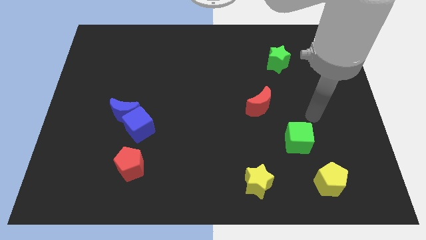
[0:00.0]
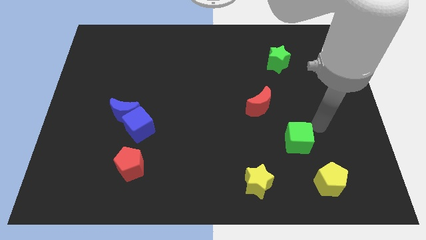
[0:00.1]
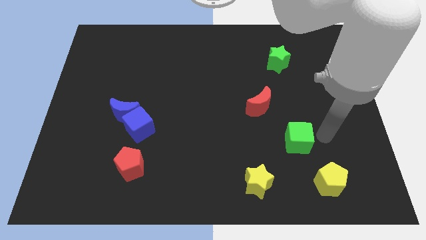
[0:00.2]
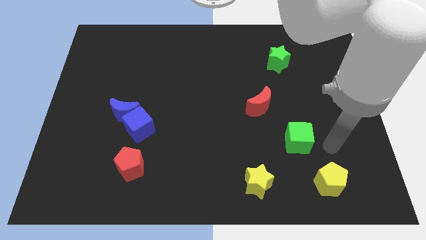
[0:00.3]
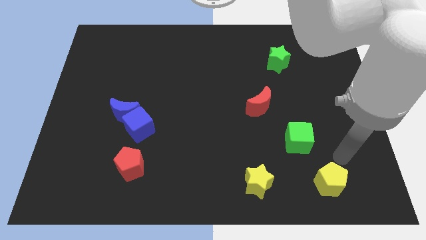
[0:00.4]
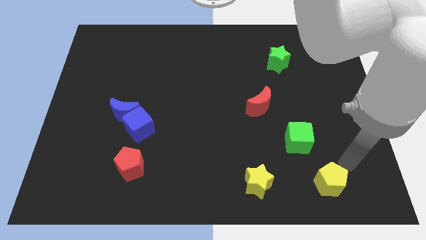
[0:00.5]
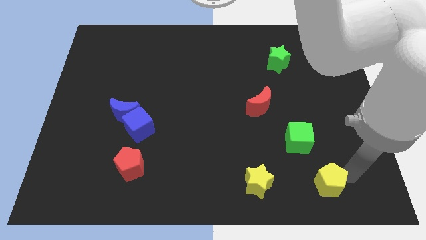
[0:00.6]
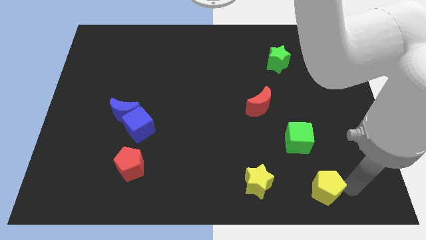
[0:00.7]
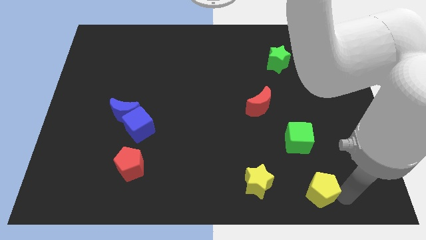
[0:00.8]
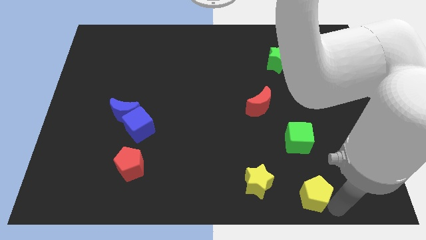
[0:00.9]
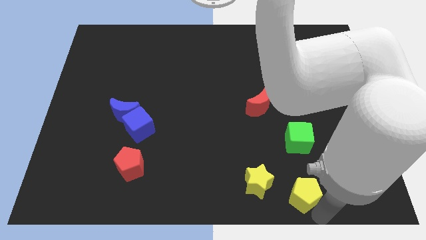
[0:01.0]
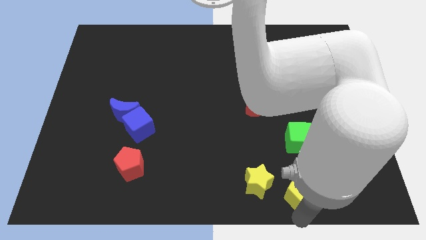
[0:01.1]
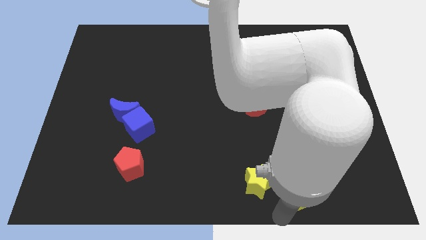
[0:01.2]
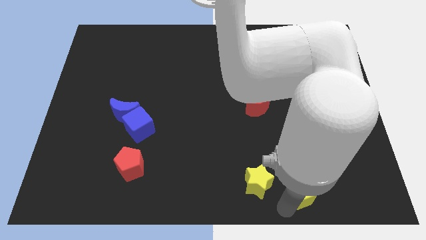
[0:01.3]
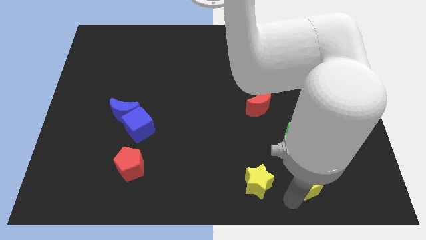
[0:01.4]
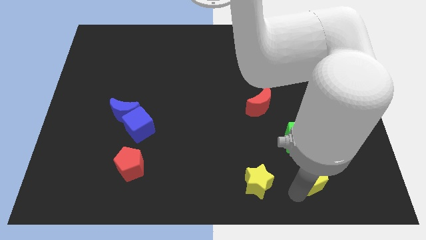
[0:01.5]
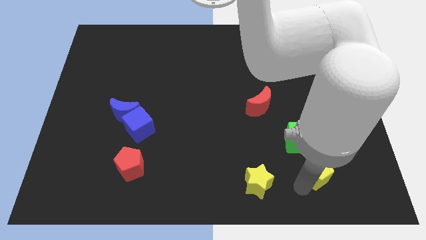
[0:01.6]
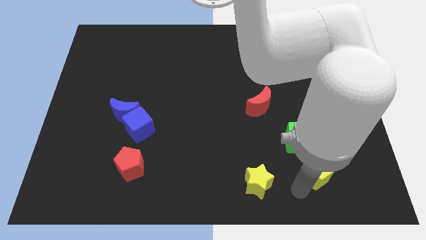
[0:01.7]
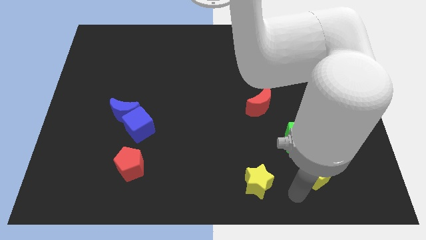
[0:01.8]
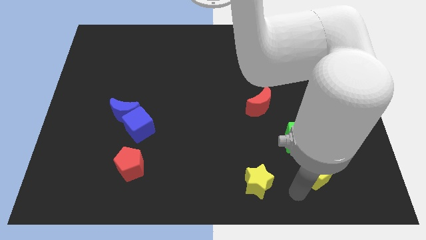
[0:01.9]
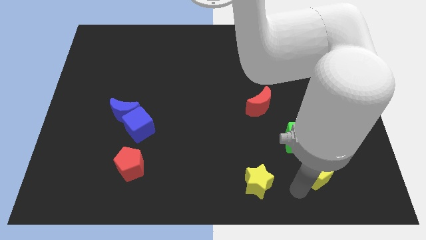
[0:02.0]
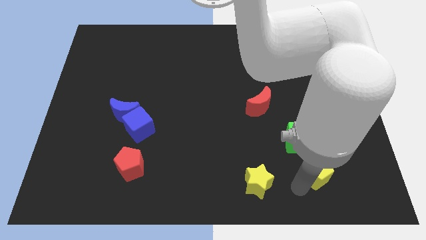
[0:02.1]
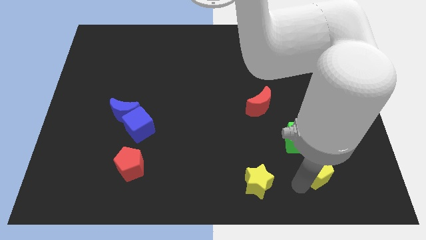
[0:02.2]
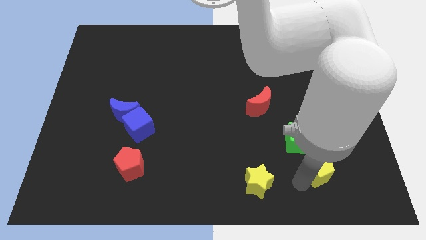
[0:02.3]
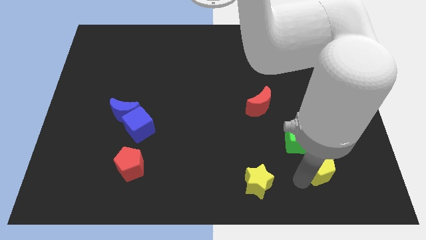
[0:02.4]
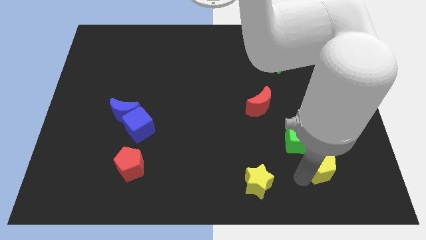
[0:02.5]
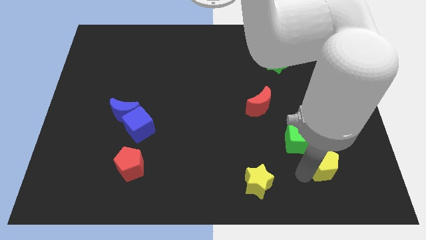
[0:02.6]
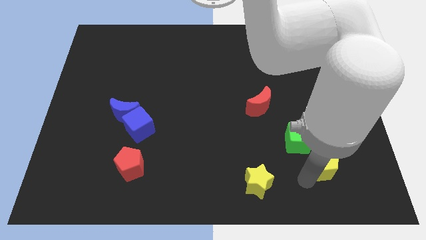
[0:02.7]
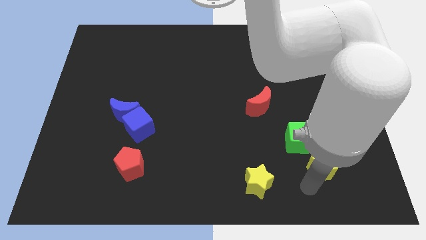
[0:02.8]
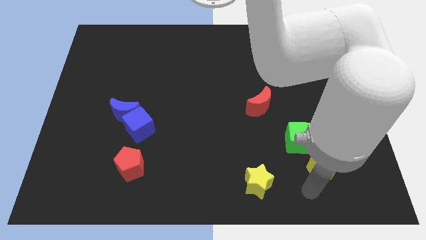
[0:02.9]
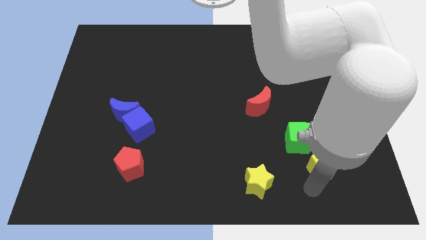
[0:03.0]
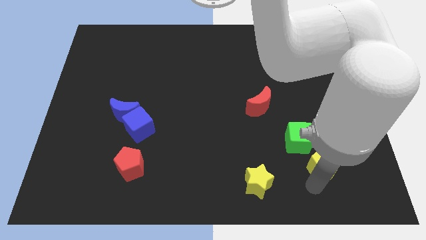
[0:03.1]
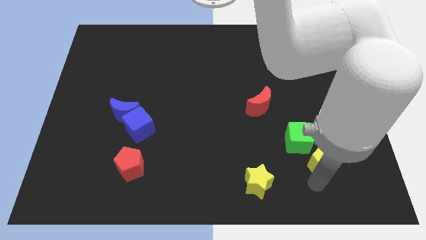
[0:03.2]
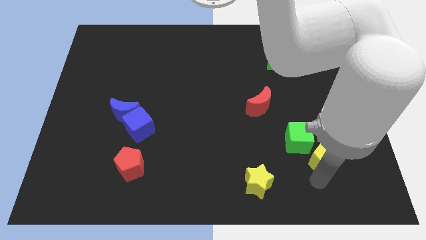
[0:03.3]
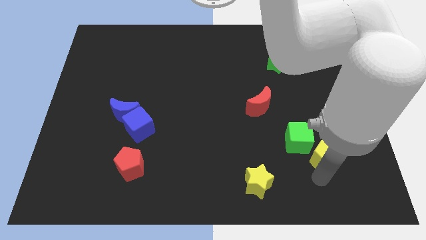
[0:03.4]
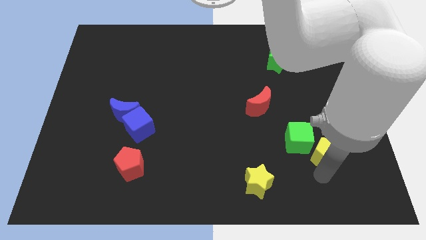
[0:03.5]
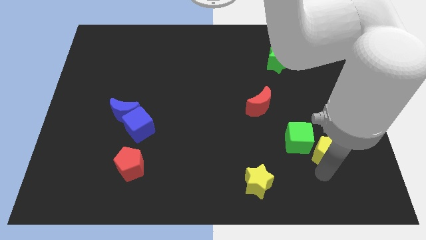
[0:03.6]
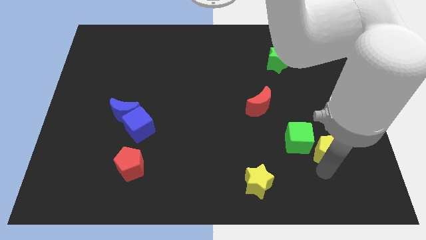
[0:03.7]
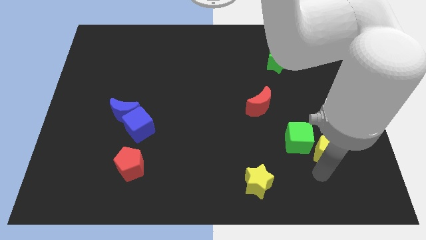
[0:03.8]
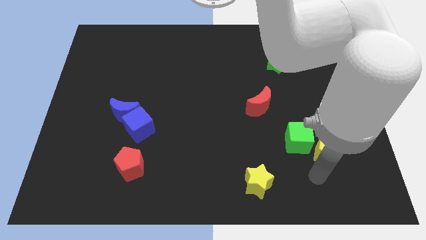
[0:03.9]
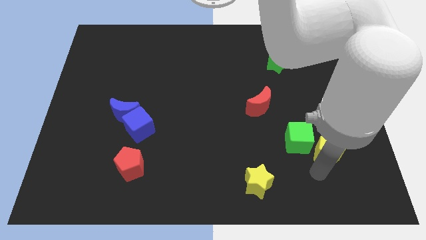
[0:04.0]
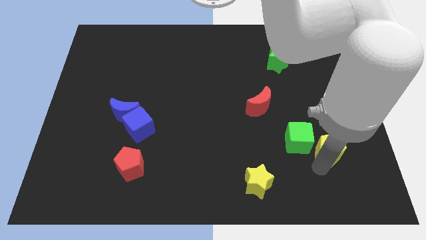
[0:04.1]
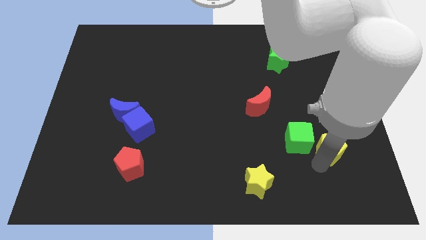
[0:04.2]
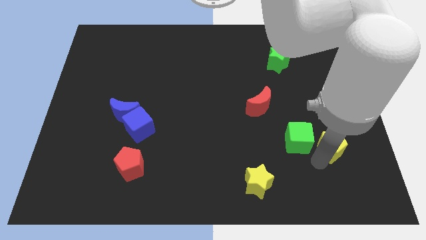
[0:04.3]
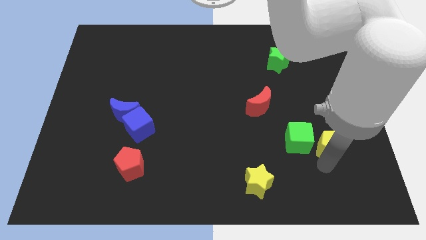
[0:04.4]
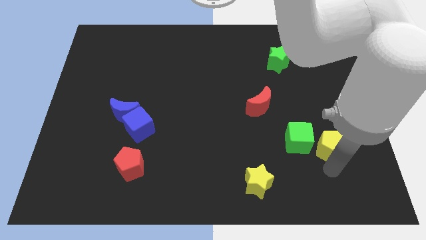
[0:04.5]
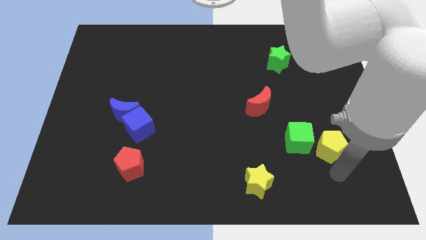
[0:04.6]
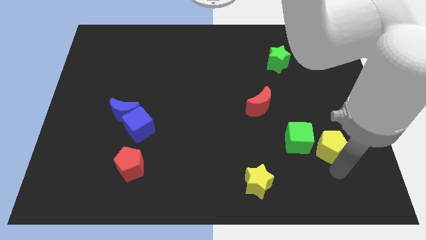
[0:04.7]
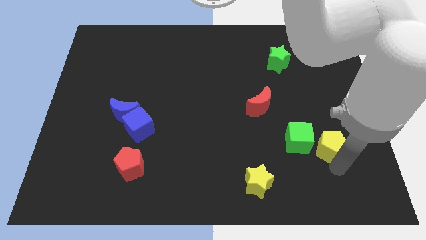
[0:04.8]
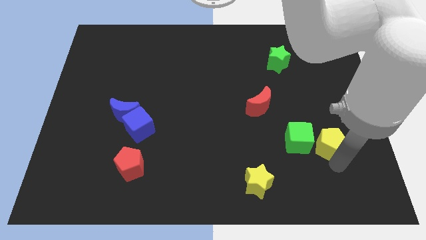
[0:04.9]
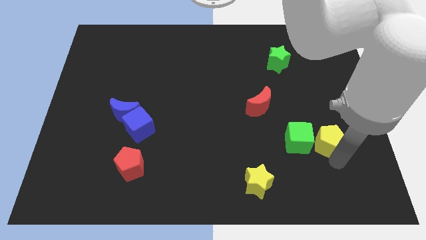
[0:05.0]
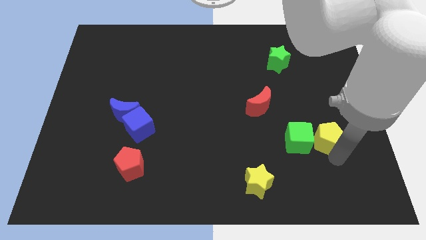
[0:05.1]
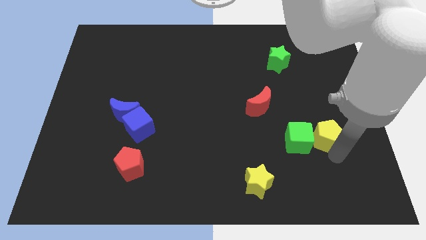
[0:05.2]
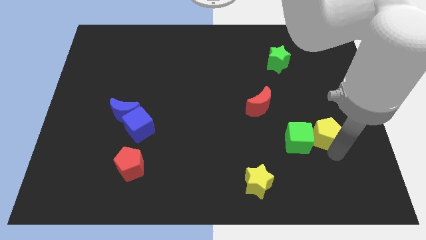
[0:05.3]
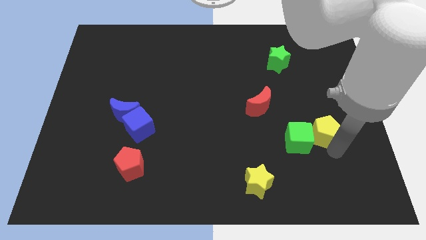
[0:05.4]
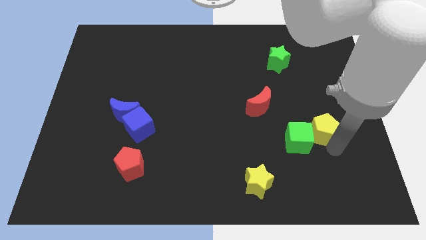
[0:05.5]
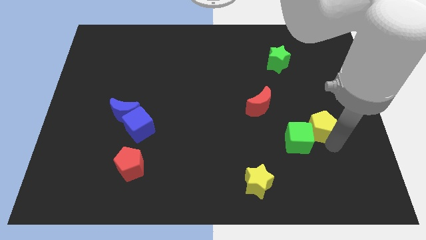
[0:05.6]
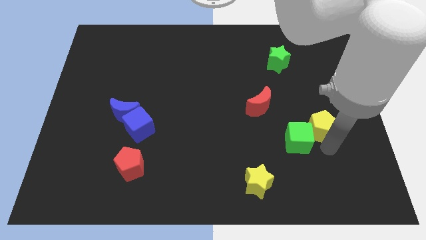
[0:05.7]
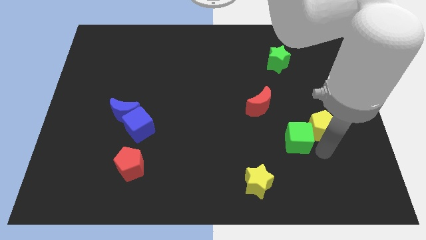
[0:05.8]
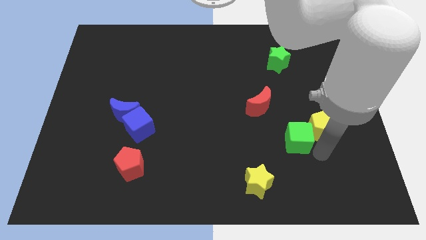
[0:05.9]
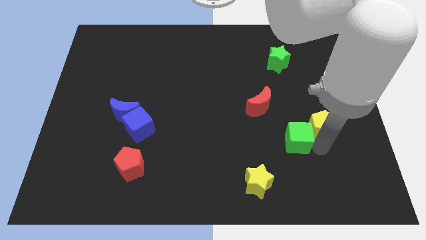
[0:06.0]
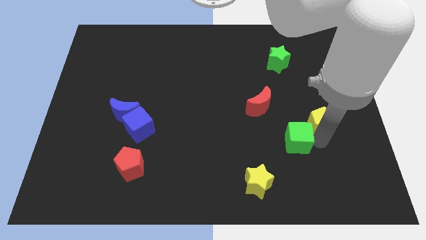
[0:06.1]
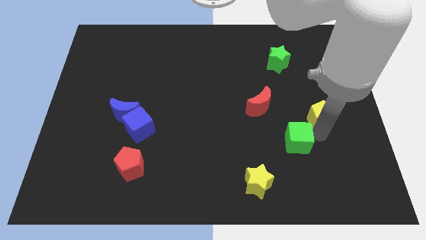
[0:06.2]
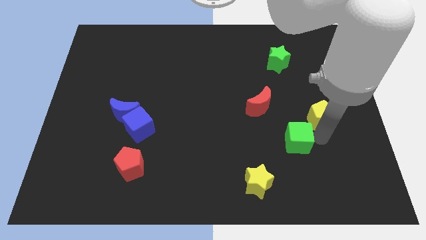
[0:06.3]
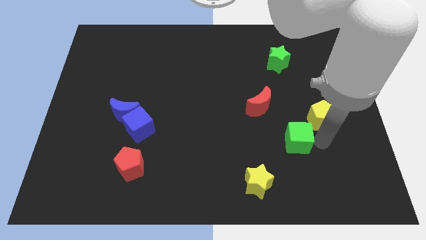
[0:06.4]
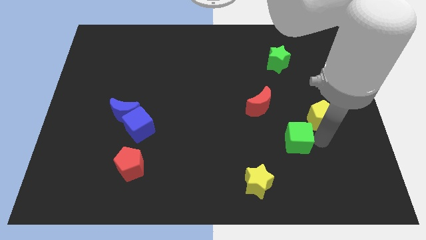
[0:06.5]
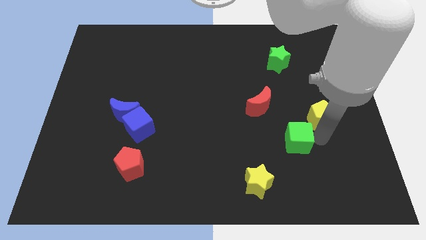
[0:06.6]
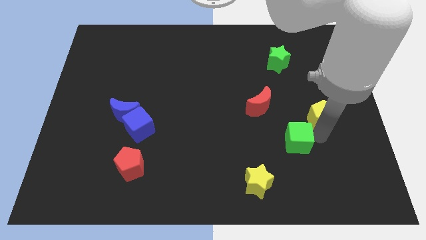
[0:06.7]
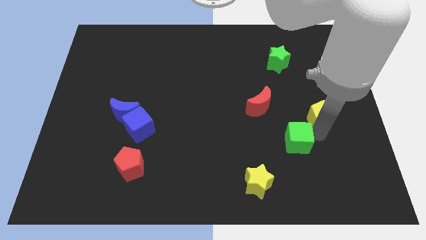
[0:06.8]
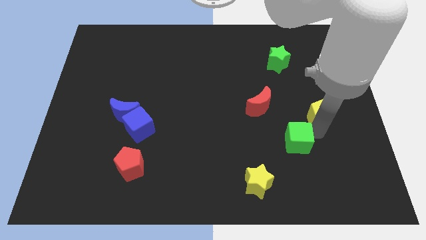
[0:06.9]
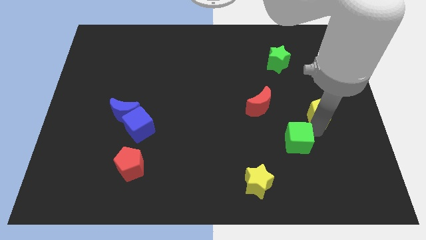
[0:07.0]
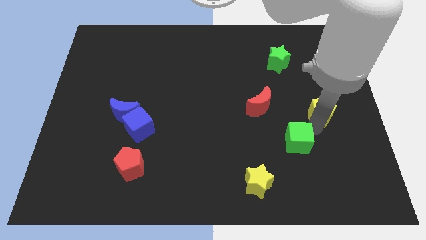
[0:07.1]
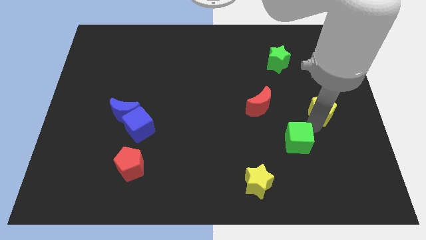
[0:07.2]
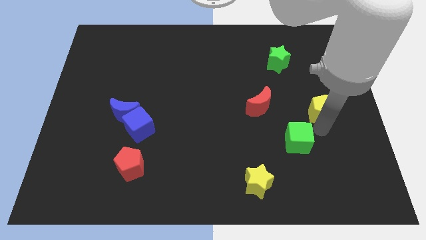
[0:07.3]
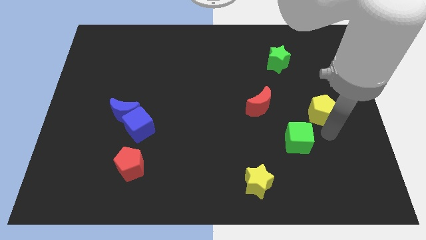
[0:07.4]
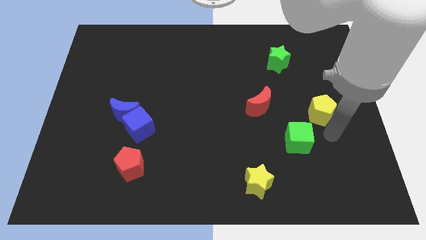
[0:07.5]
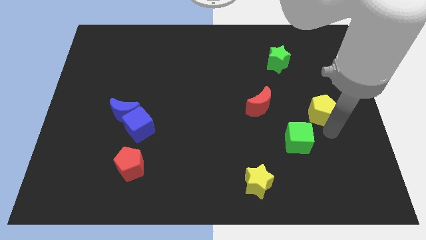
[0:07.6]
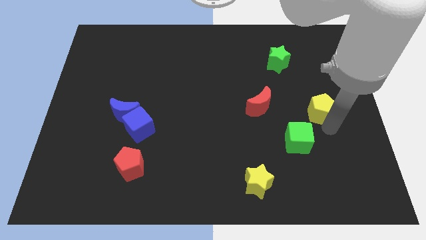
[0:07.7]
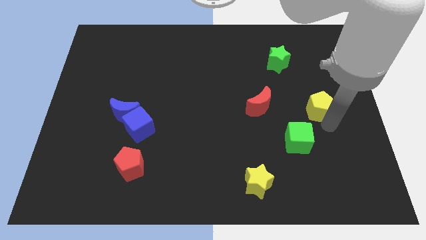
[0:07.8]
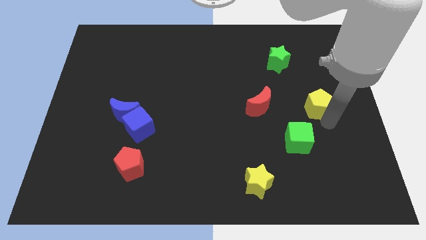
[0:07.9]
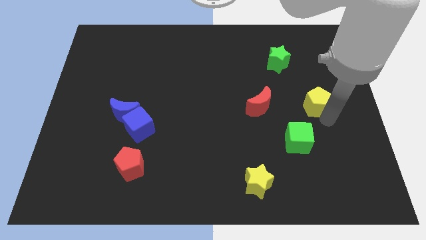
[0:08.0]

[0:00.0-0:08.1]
move the yellow pentagon up
